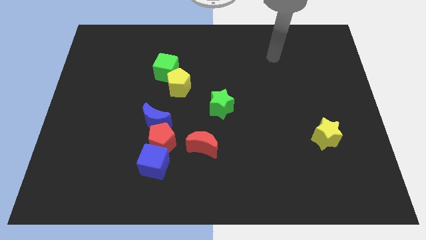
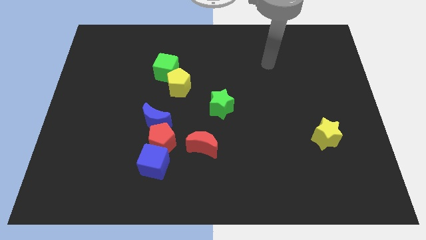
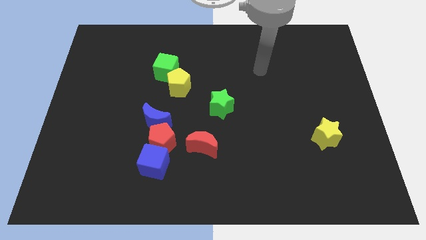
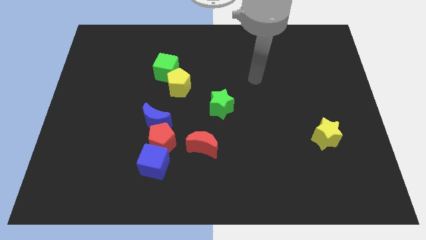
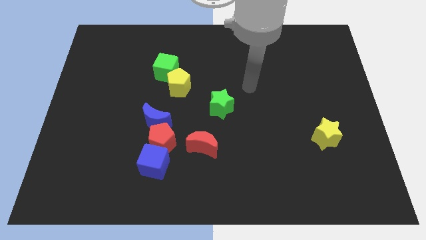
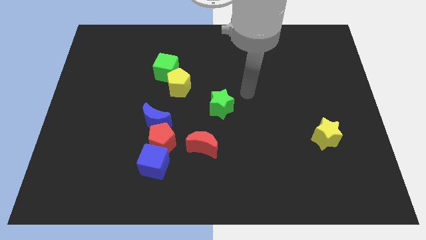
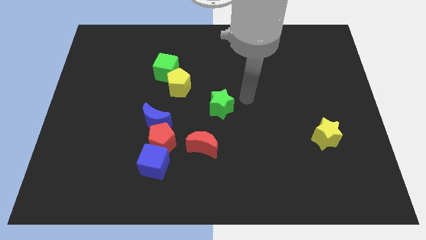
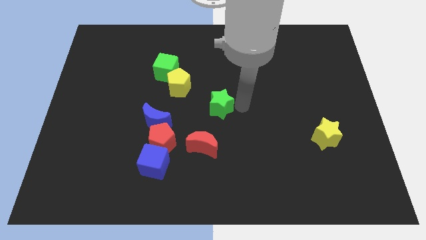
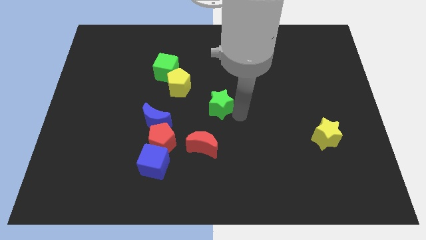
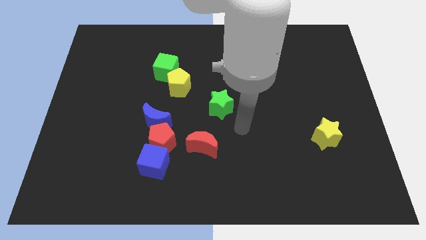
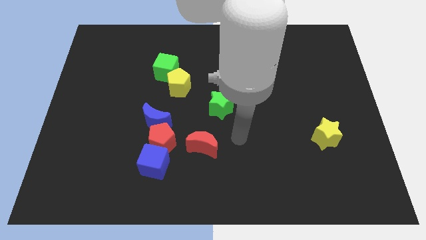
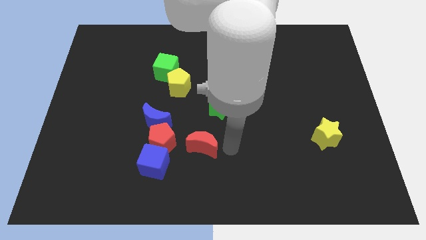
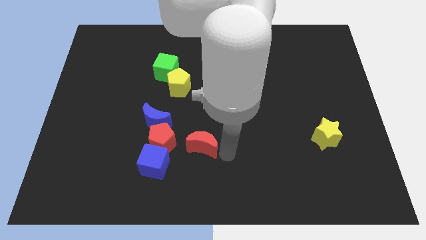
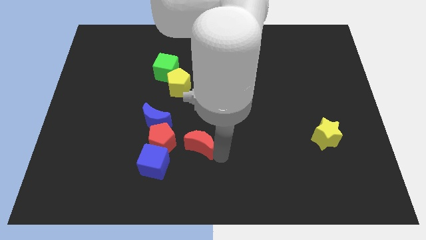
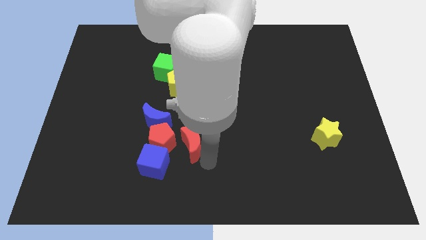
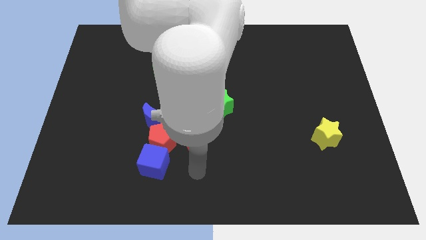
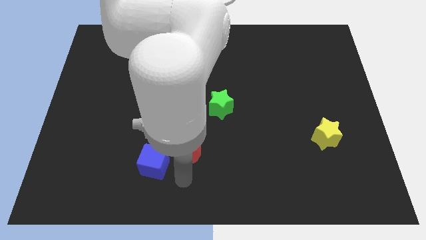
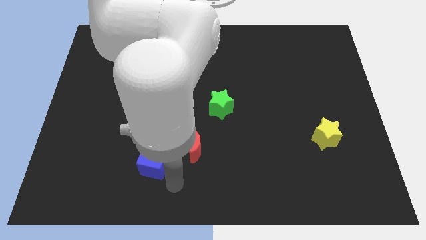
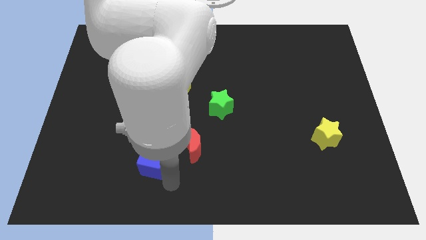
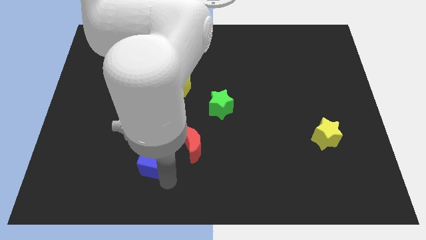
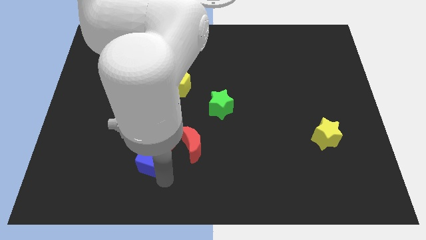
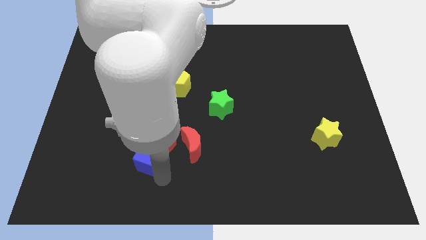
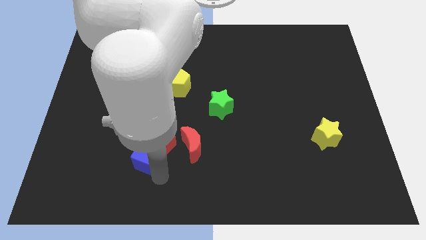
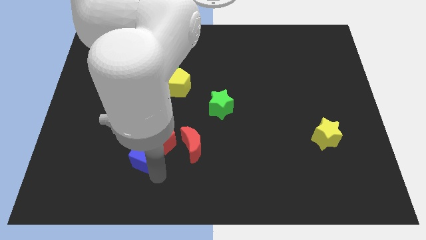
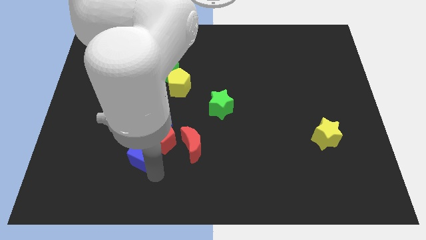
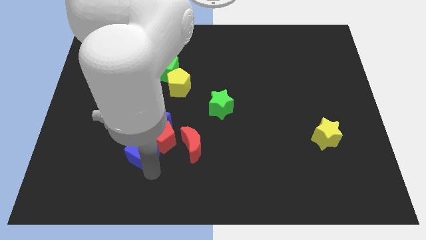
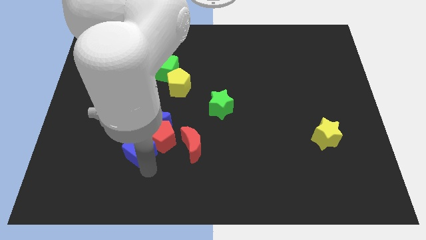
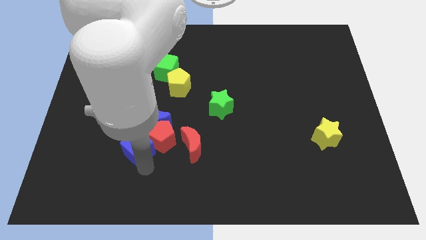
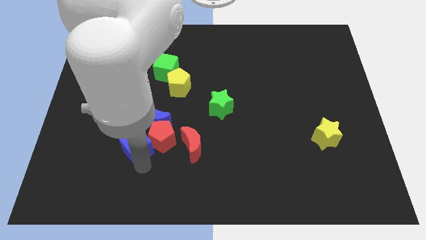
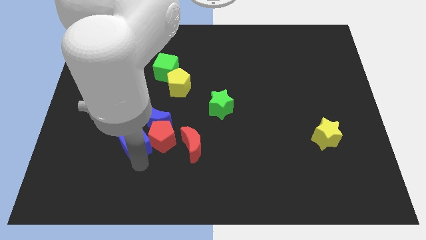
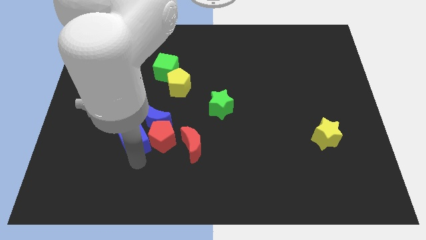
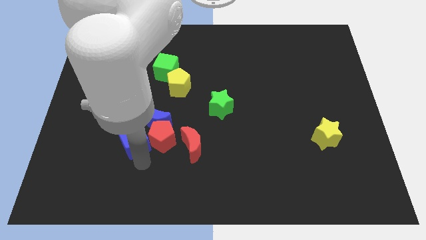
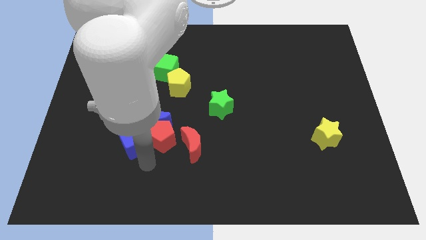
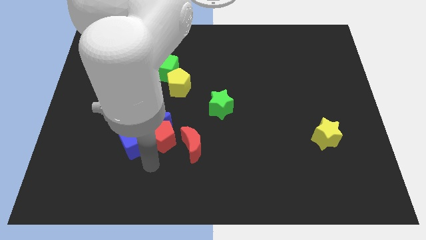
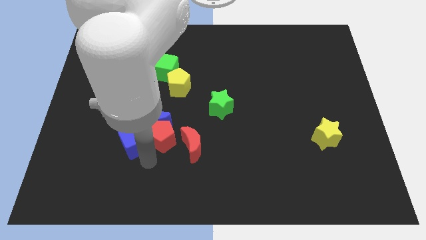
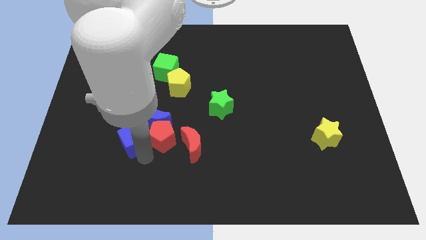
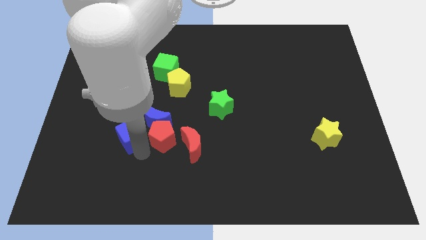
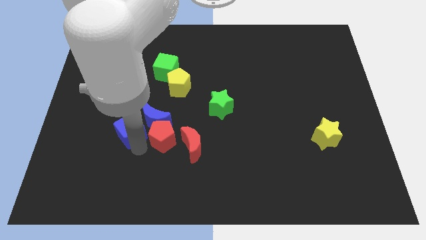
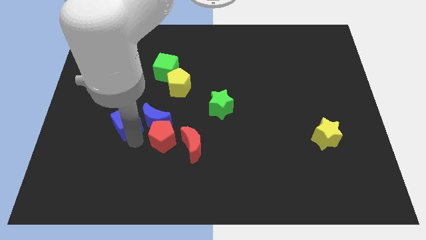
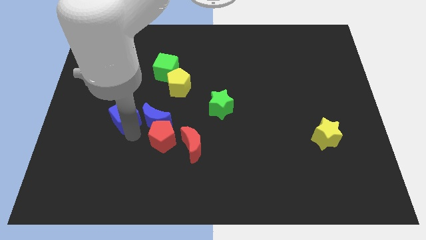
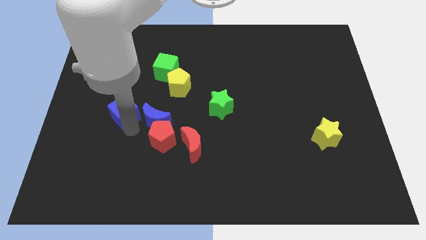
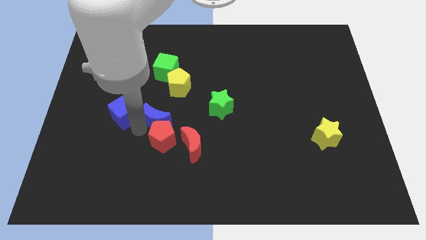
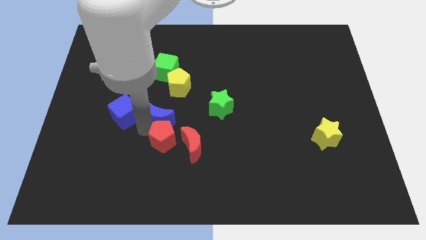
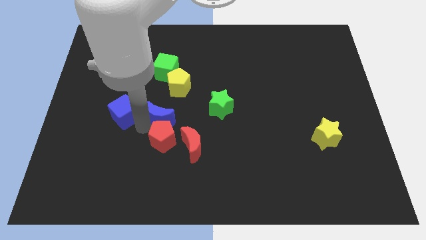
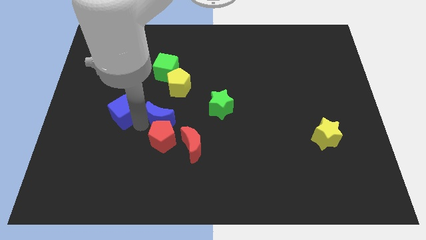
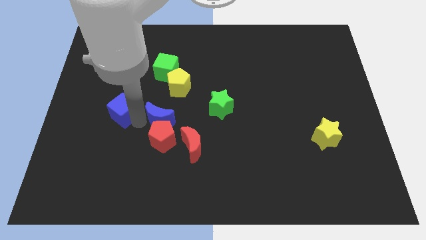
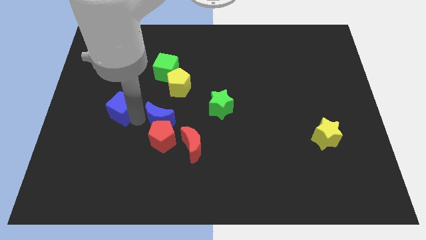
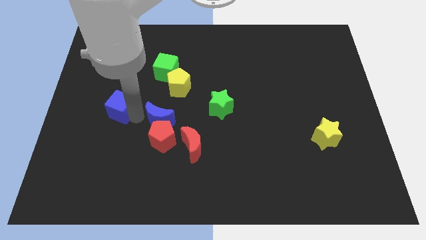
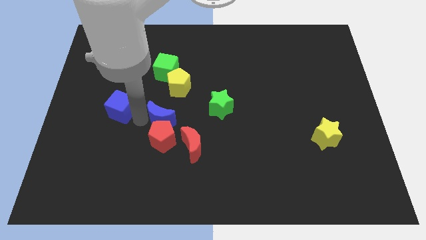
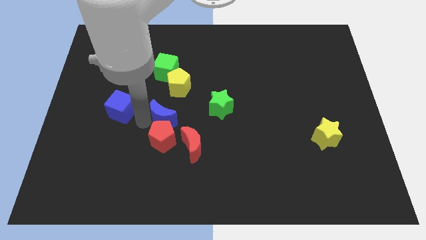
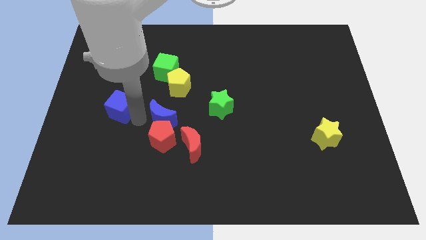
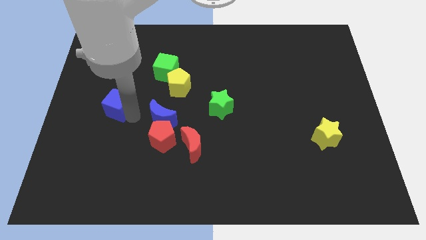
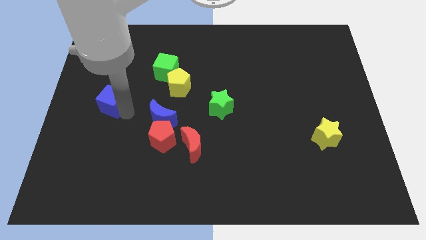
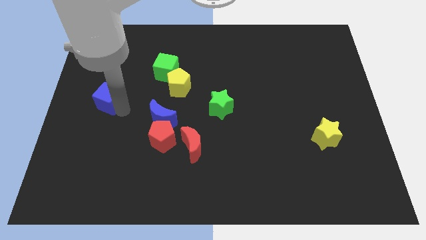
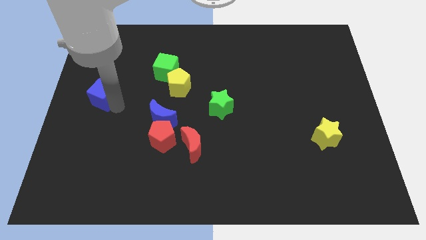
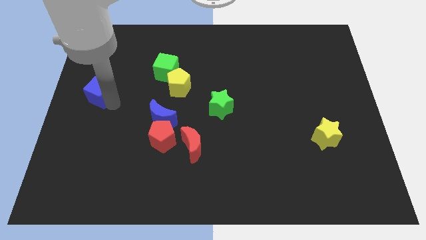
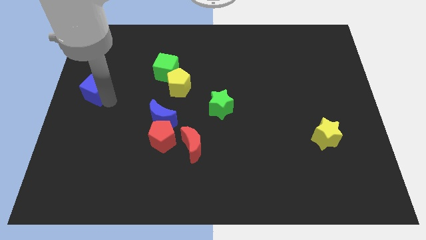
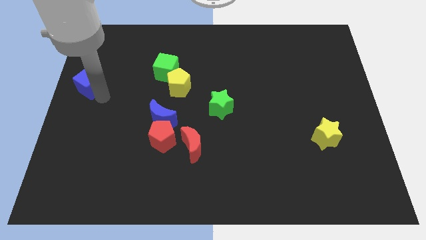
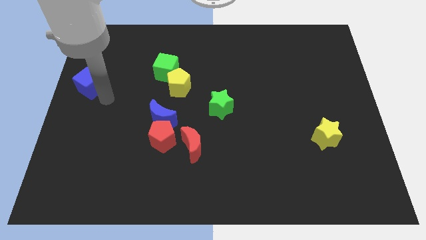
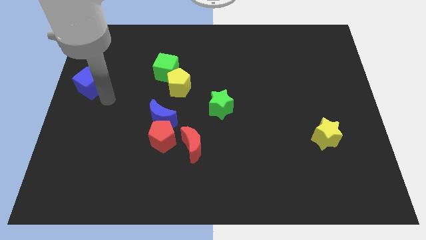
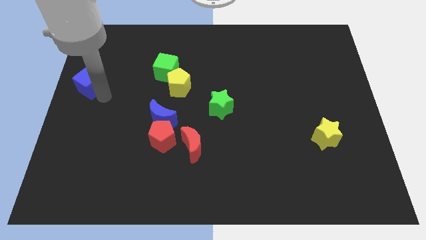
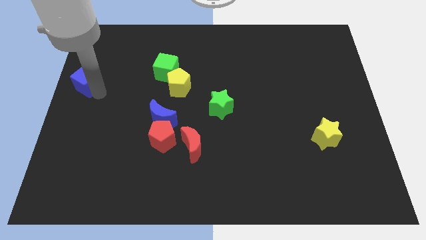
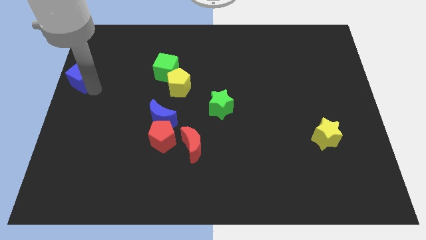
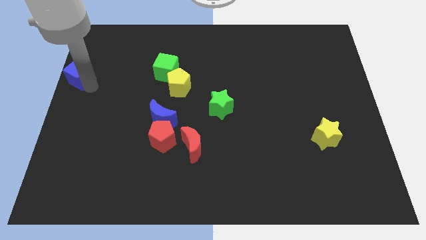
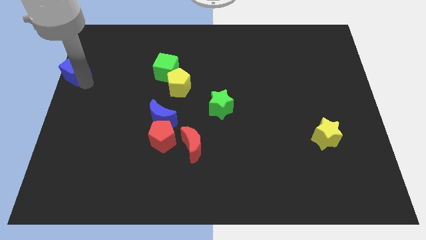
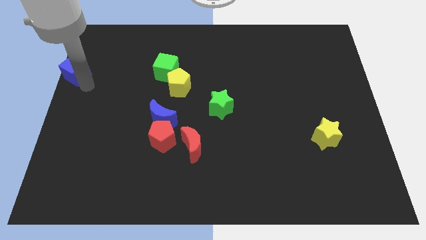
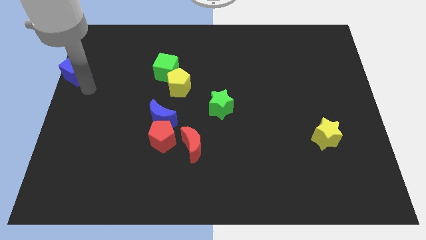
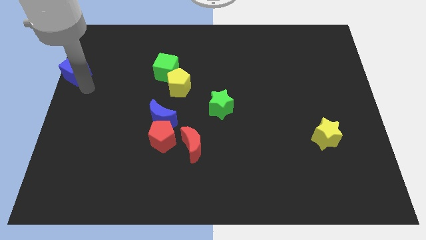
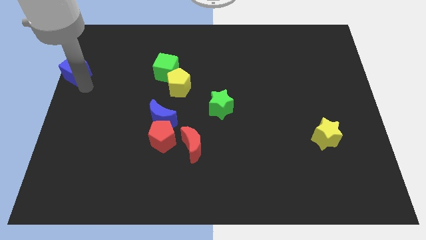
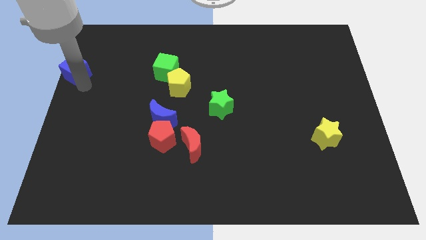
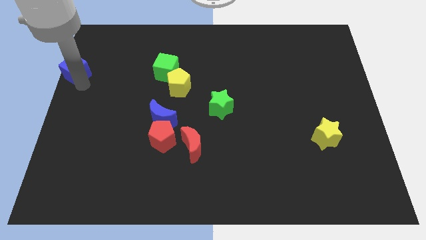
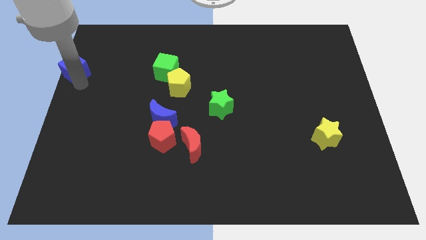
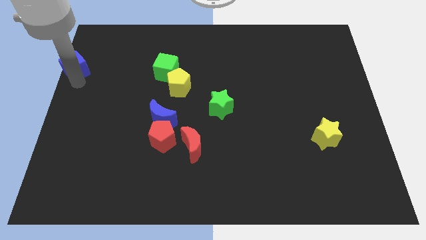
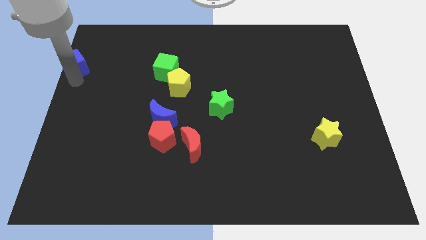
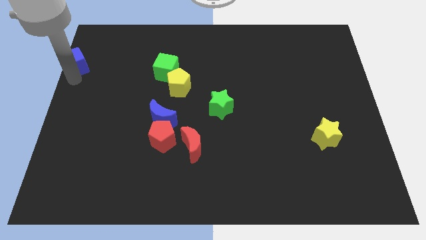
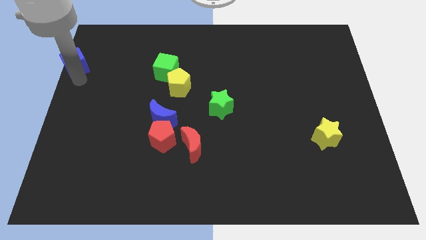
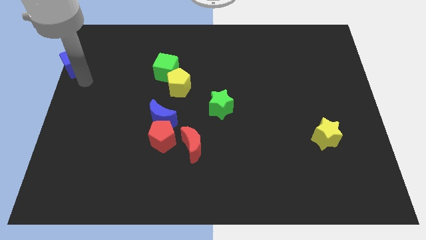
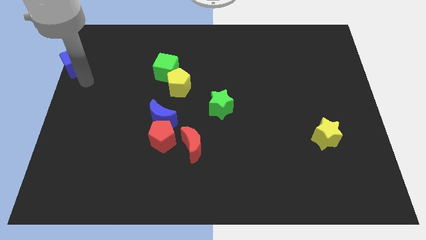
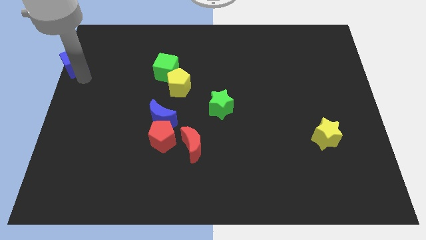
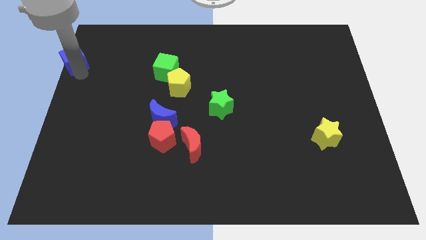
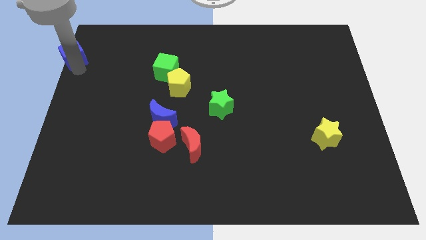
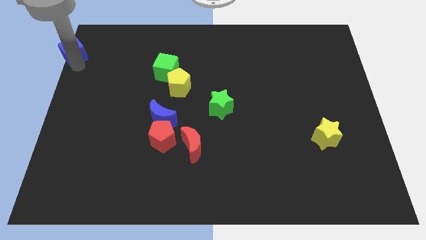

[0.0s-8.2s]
move the blue cube to the upper left corner

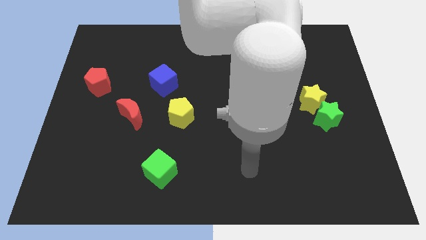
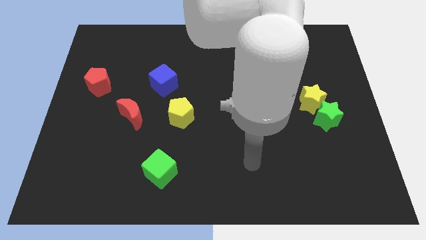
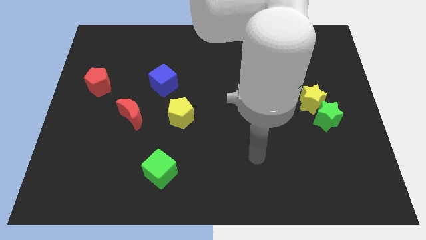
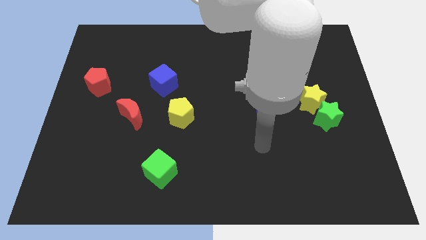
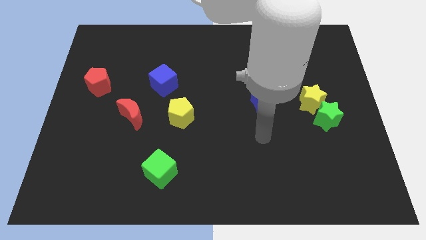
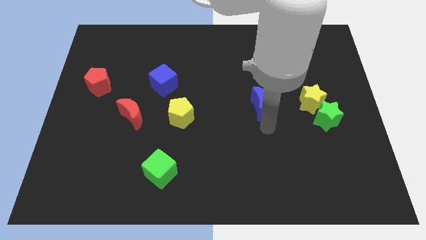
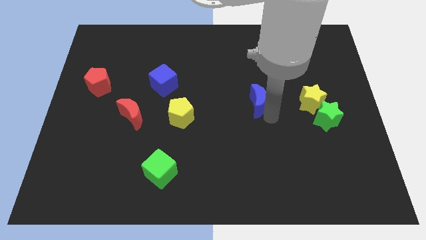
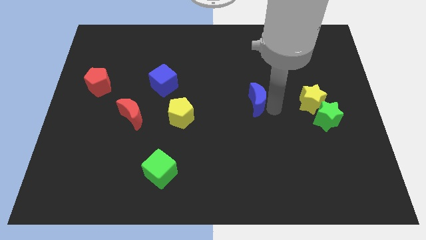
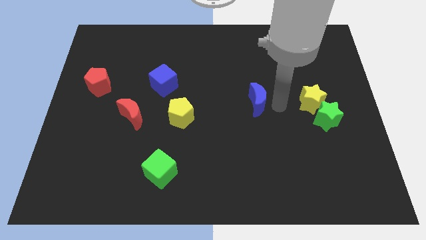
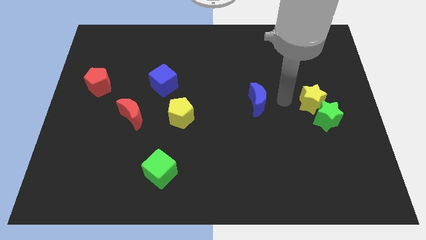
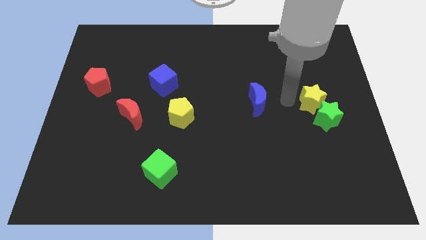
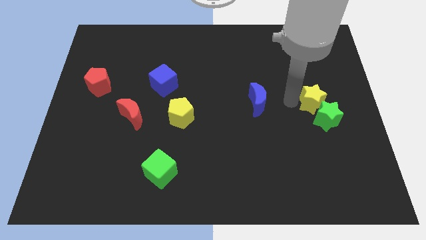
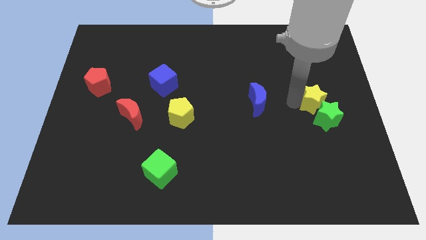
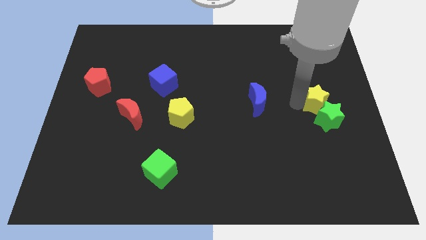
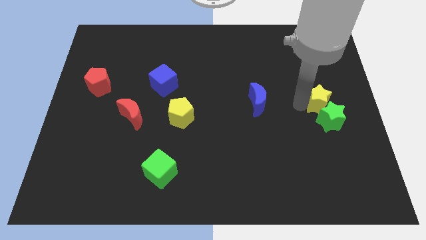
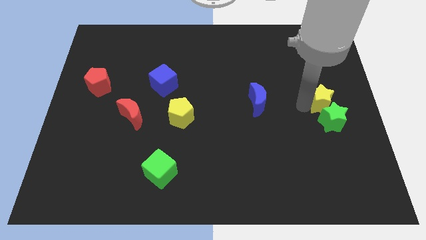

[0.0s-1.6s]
put the yellow star to the center right
